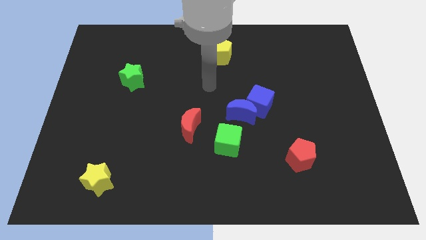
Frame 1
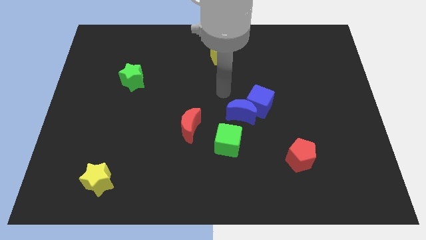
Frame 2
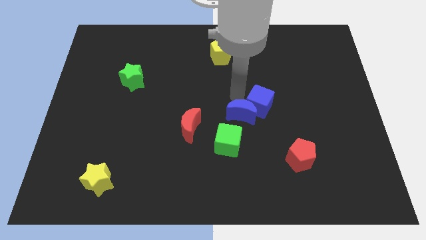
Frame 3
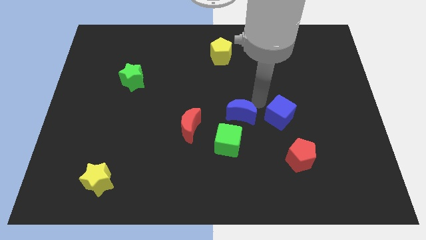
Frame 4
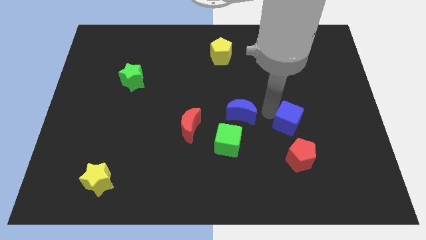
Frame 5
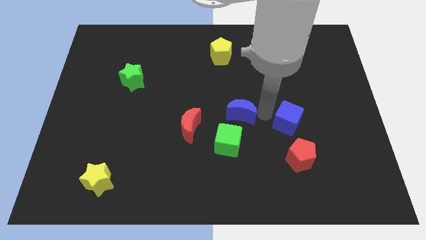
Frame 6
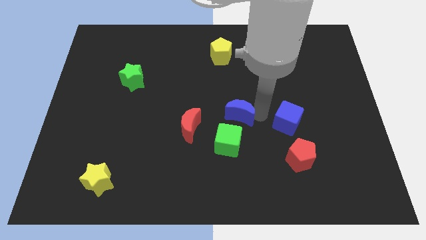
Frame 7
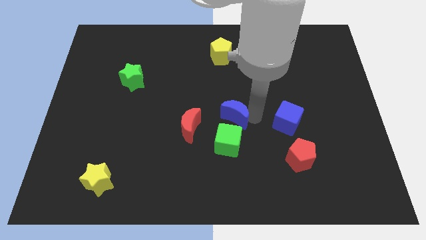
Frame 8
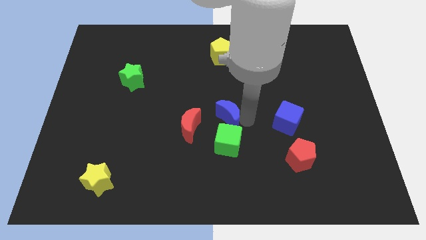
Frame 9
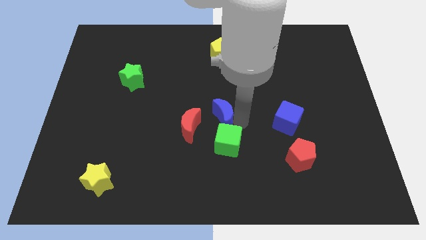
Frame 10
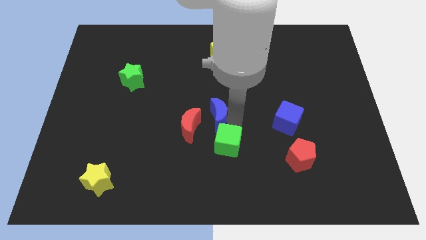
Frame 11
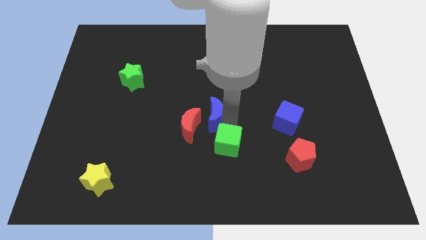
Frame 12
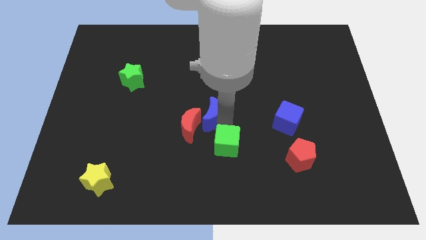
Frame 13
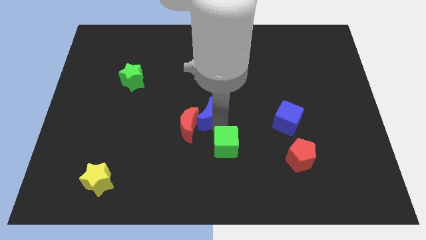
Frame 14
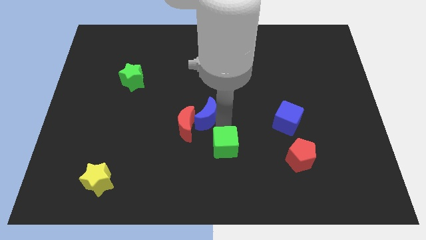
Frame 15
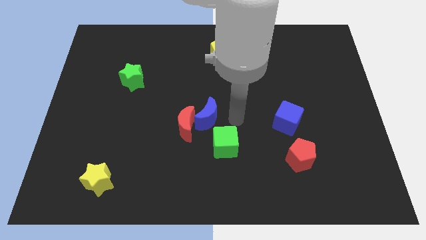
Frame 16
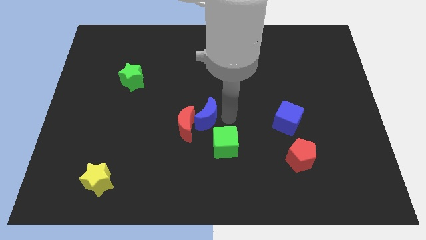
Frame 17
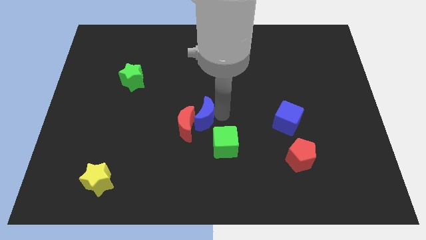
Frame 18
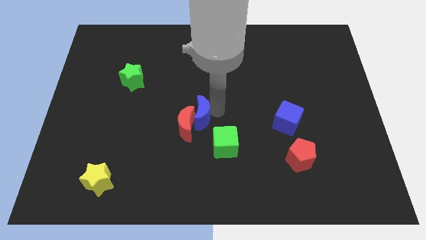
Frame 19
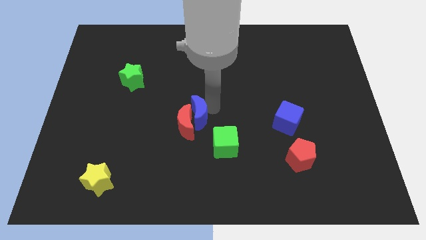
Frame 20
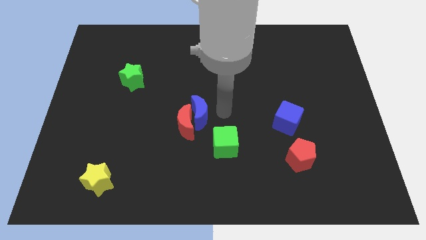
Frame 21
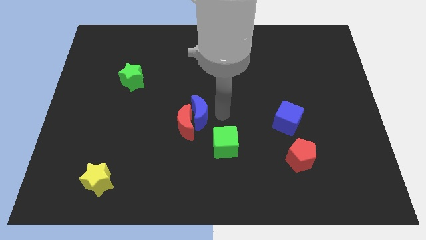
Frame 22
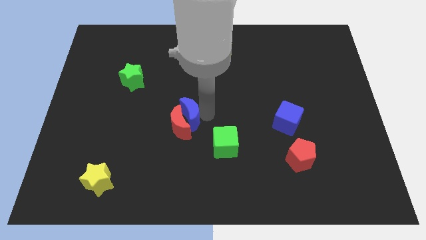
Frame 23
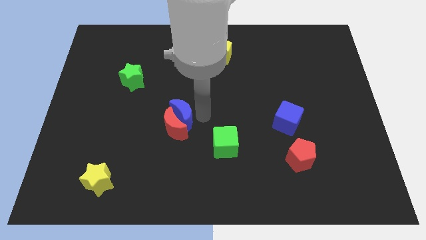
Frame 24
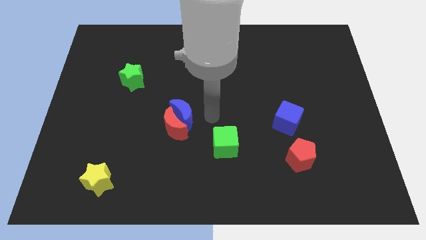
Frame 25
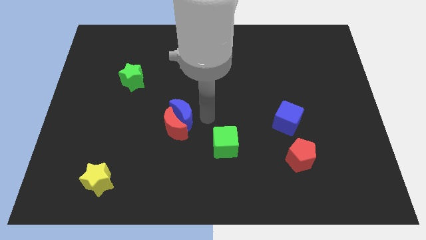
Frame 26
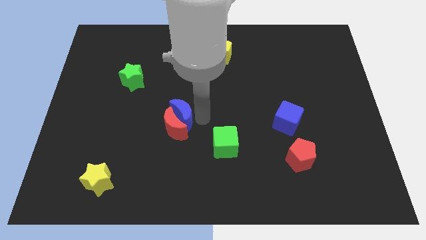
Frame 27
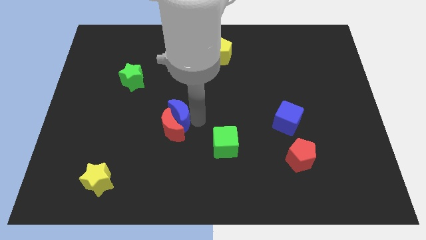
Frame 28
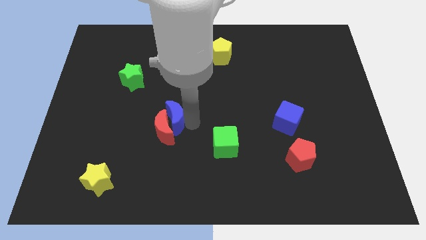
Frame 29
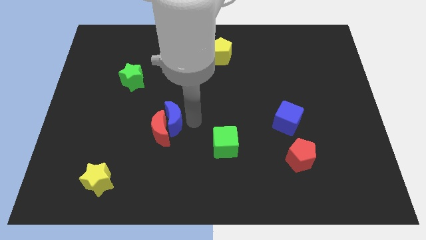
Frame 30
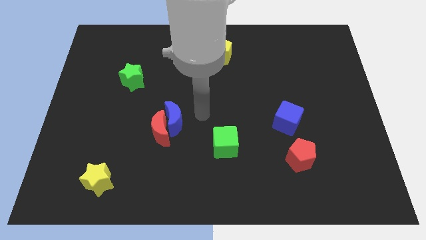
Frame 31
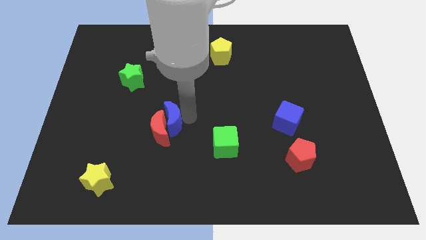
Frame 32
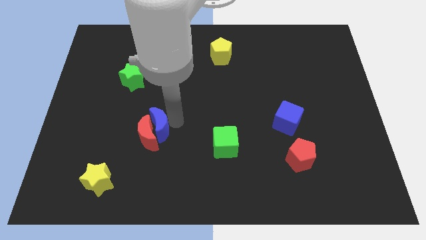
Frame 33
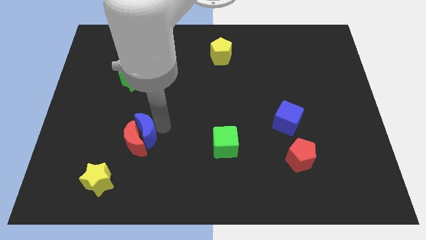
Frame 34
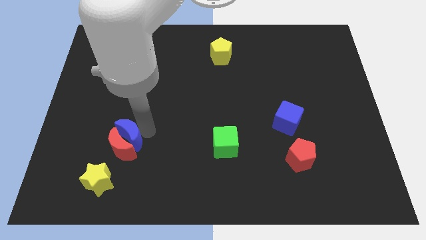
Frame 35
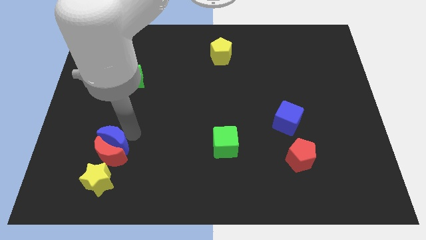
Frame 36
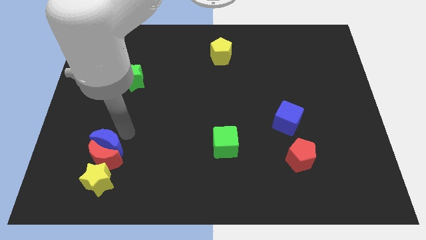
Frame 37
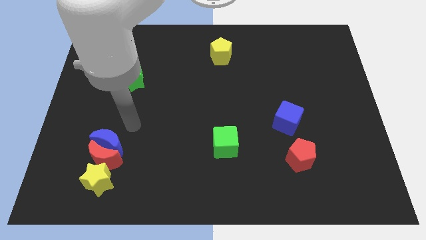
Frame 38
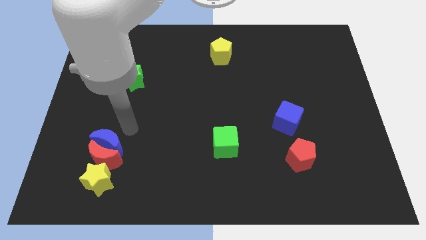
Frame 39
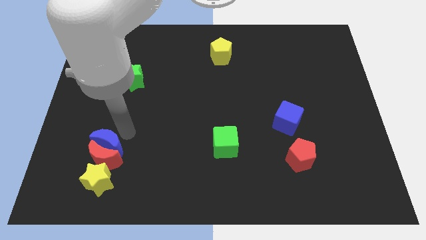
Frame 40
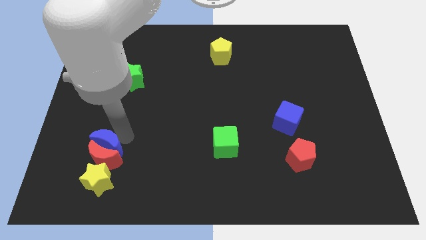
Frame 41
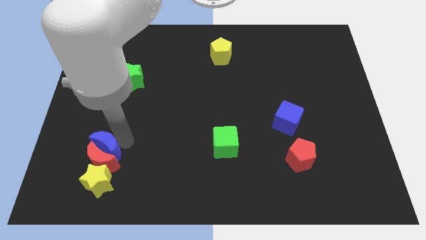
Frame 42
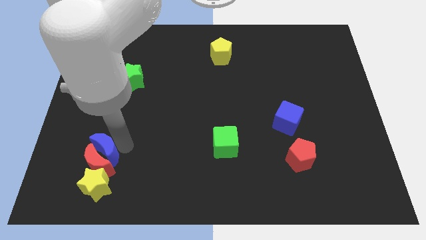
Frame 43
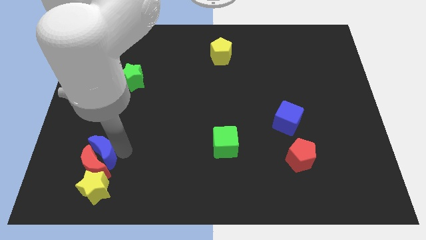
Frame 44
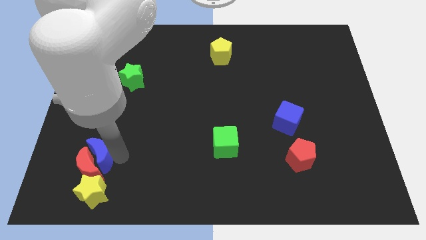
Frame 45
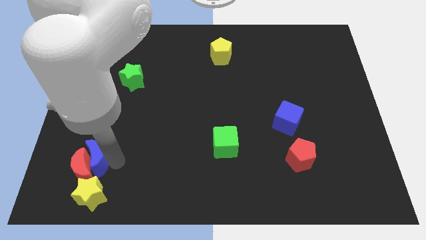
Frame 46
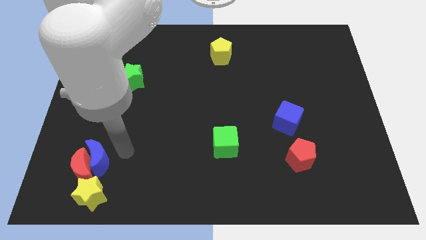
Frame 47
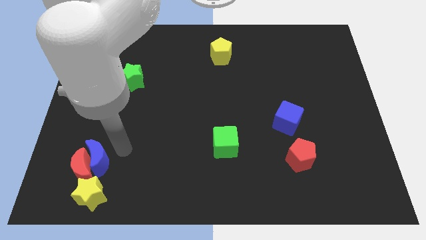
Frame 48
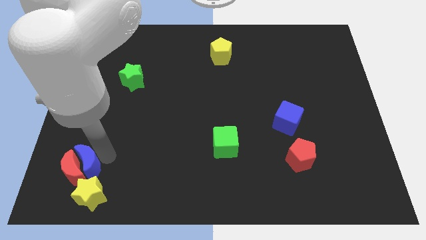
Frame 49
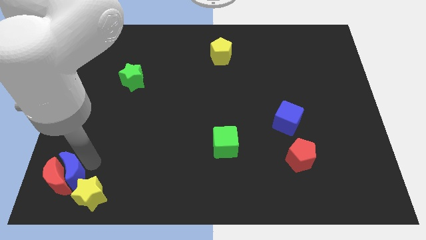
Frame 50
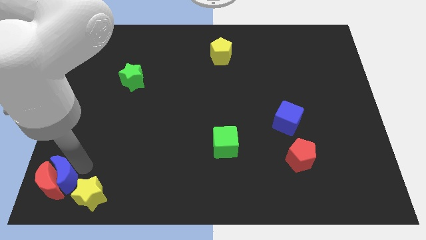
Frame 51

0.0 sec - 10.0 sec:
push the blue moon to the bottom left

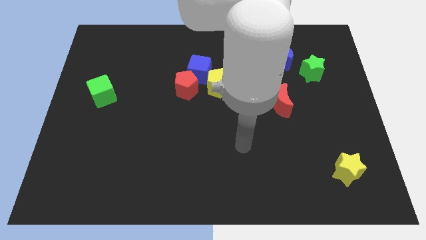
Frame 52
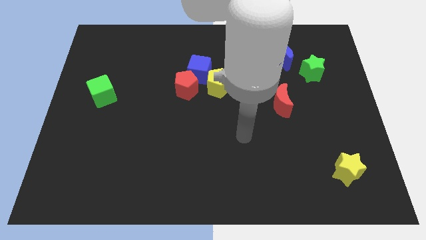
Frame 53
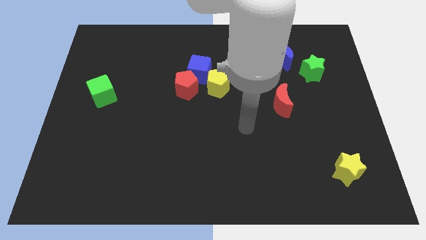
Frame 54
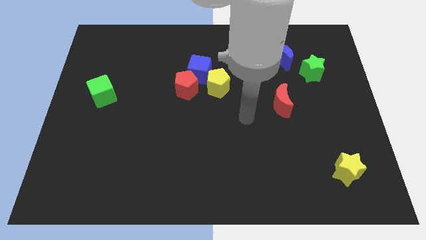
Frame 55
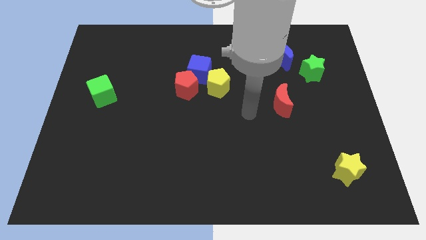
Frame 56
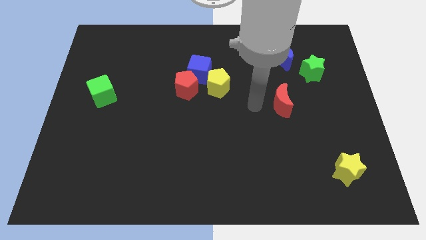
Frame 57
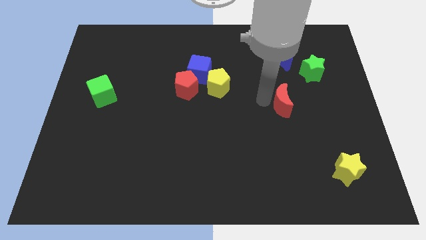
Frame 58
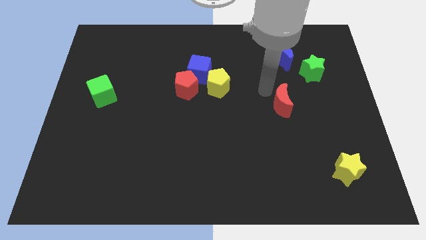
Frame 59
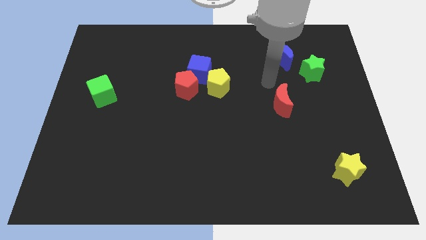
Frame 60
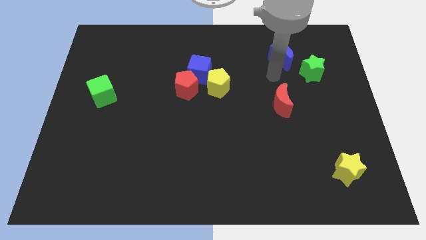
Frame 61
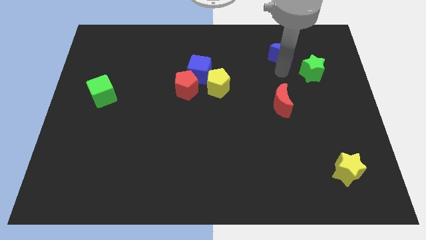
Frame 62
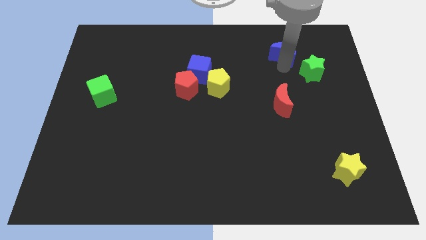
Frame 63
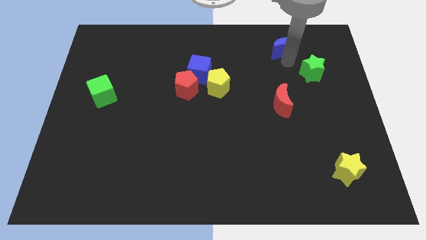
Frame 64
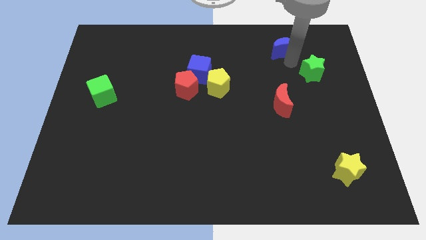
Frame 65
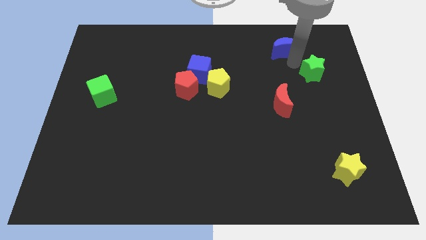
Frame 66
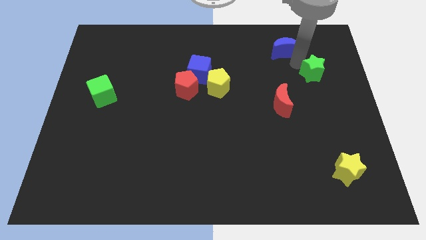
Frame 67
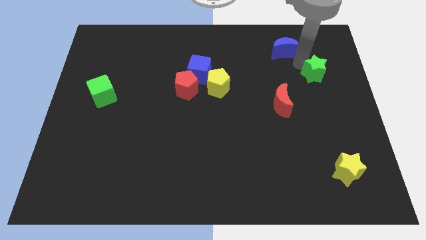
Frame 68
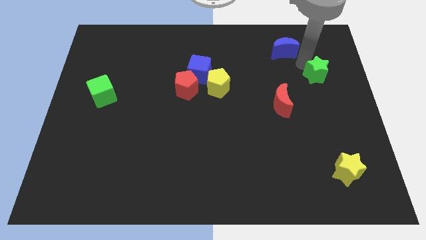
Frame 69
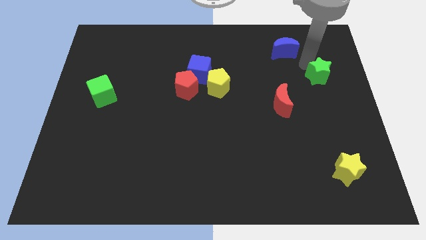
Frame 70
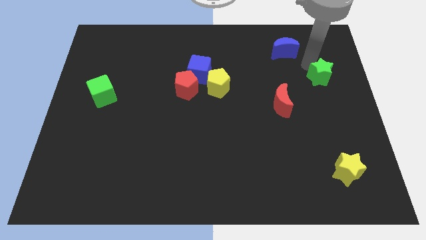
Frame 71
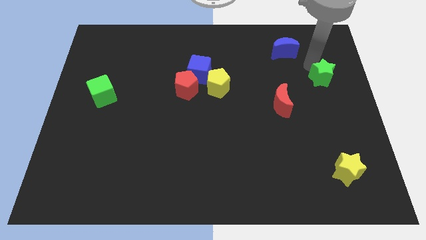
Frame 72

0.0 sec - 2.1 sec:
put the green star to the center right

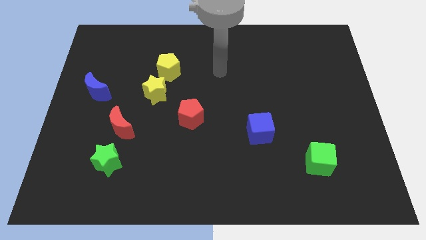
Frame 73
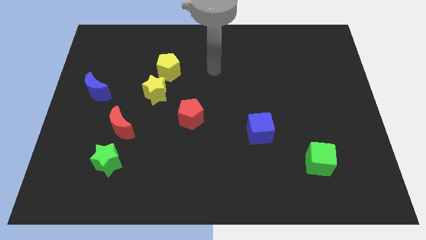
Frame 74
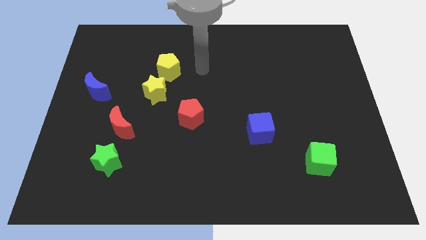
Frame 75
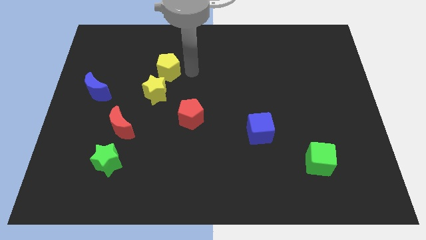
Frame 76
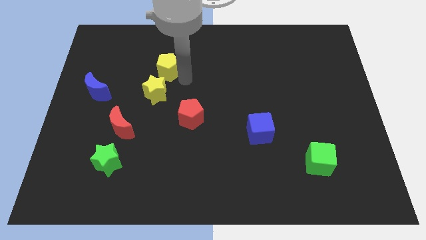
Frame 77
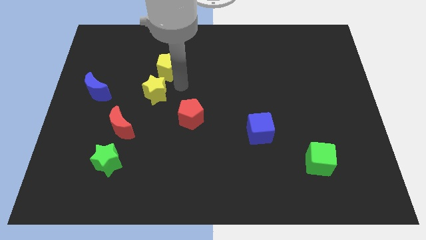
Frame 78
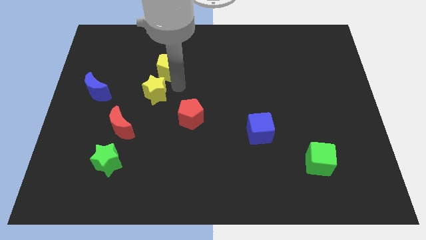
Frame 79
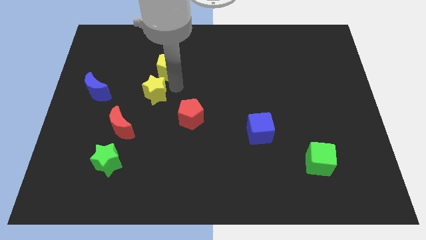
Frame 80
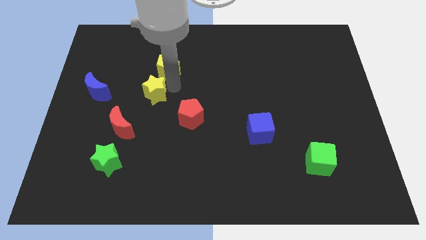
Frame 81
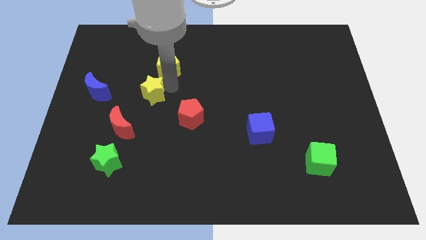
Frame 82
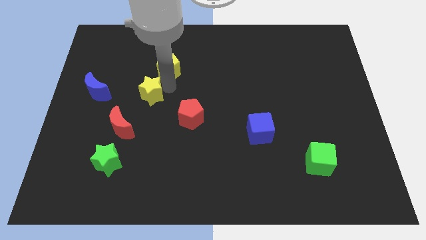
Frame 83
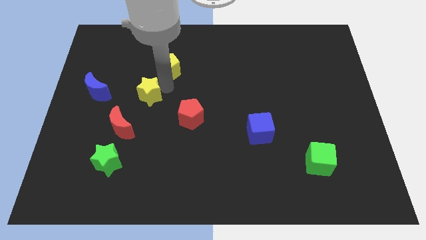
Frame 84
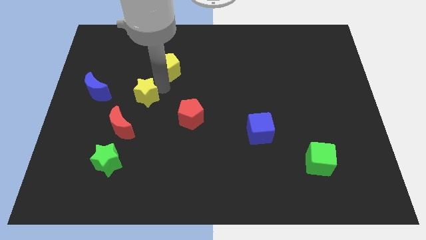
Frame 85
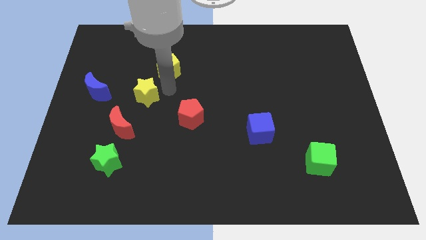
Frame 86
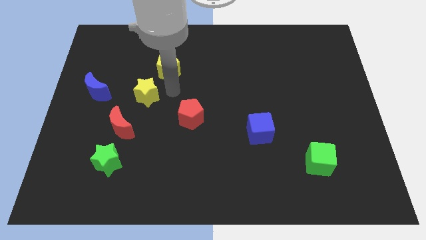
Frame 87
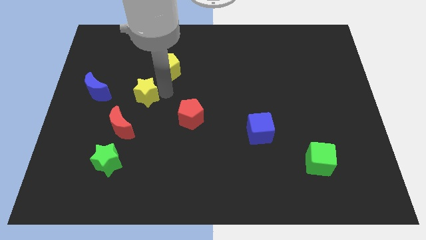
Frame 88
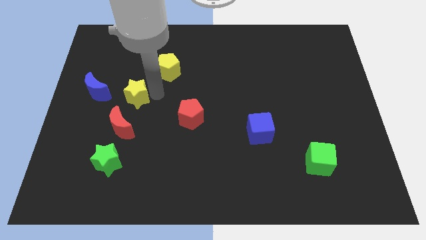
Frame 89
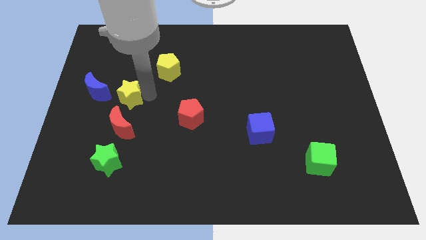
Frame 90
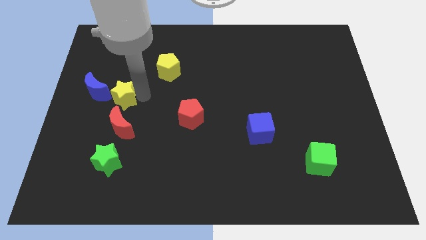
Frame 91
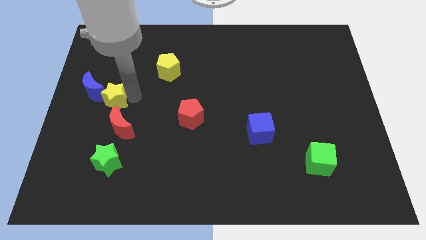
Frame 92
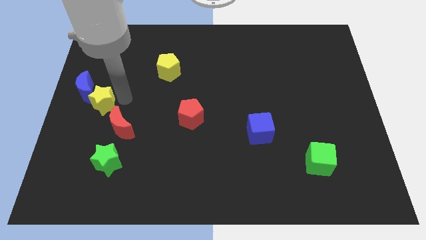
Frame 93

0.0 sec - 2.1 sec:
put the yellow star to the center left
